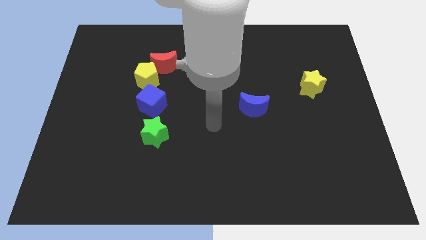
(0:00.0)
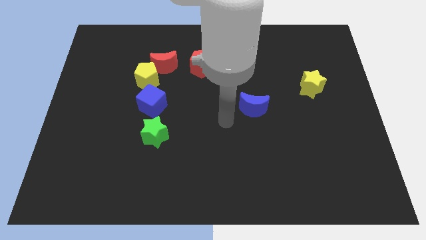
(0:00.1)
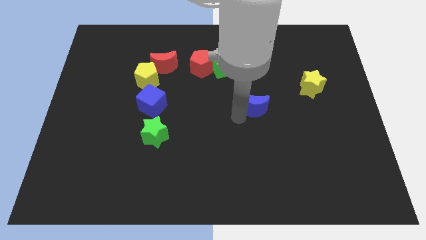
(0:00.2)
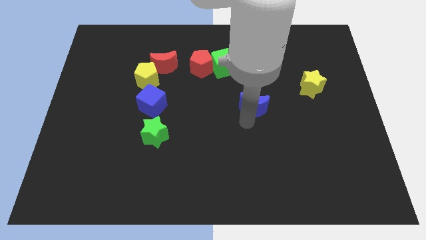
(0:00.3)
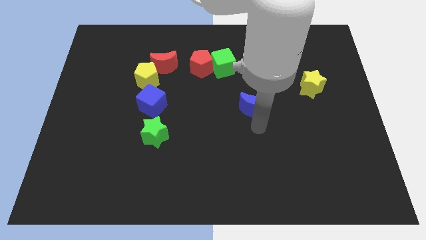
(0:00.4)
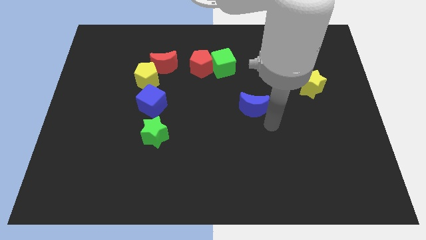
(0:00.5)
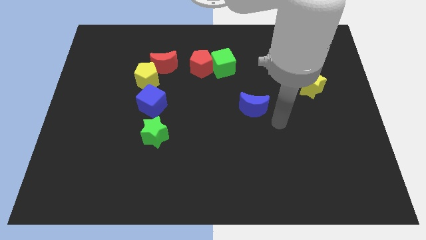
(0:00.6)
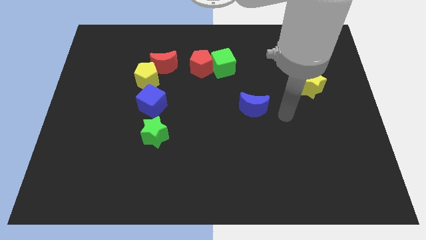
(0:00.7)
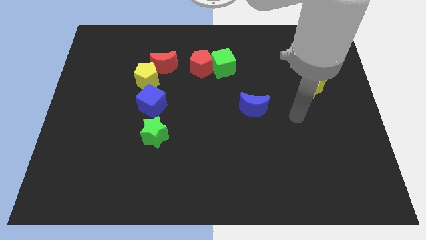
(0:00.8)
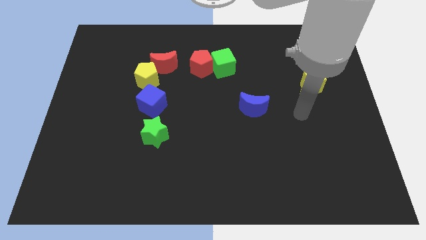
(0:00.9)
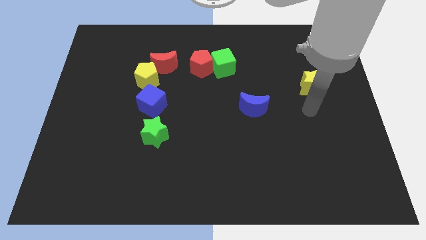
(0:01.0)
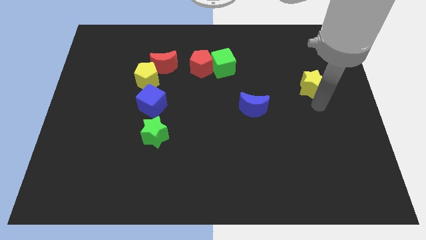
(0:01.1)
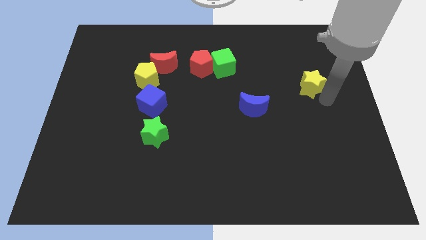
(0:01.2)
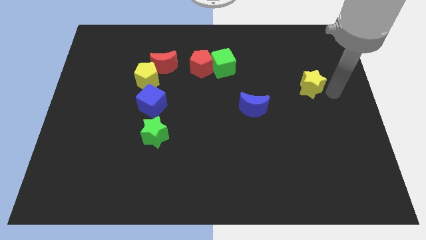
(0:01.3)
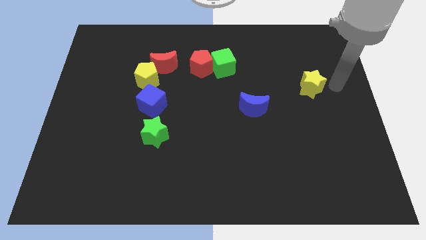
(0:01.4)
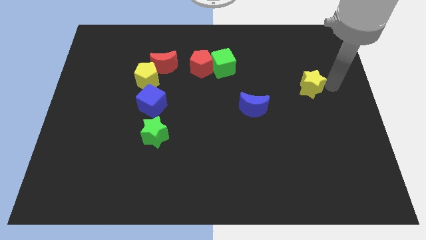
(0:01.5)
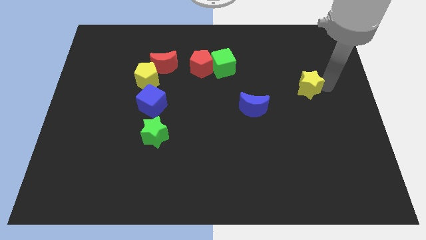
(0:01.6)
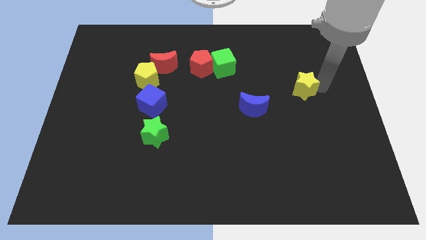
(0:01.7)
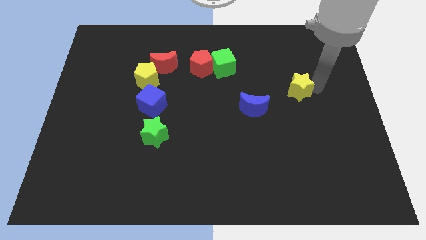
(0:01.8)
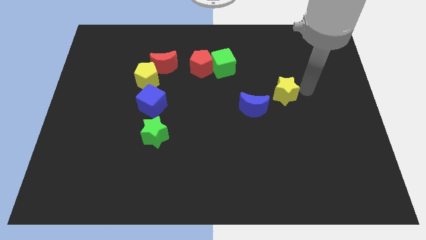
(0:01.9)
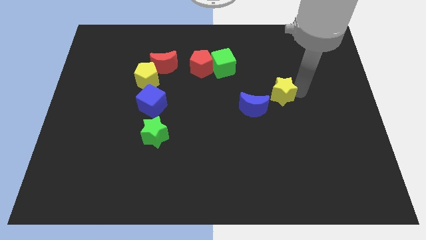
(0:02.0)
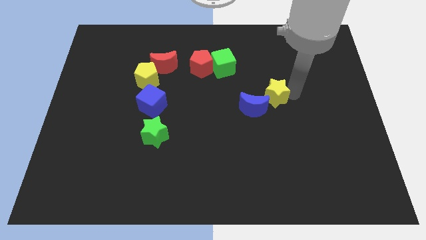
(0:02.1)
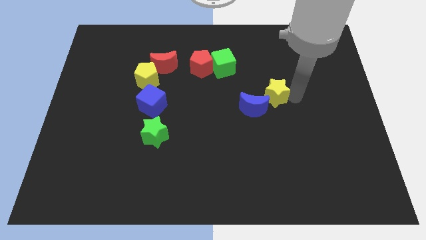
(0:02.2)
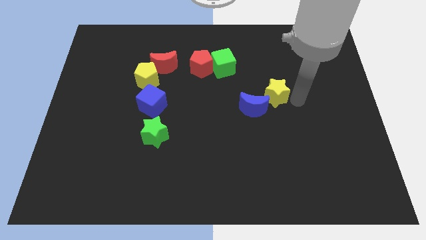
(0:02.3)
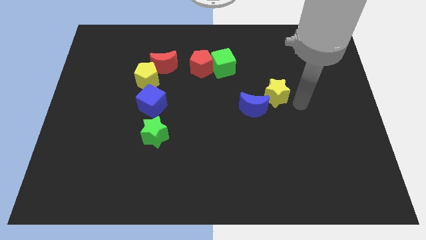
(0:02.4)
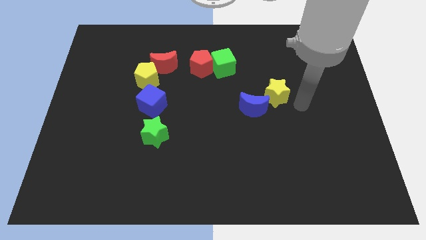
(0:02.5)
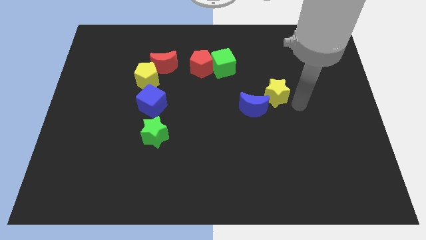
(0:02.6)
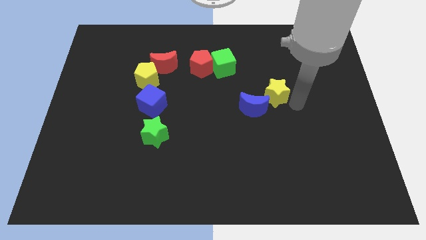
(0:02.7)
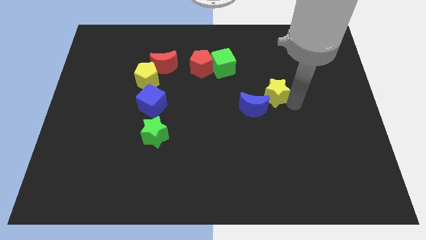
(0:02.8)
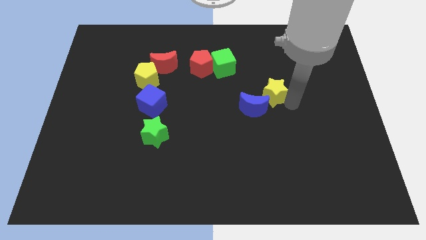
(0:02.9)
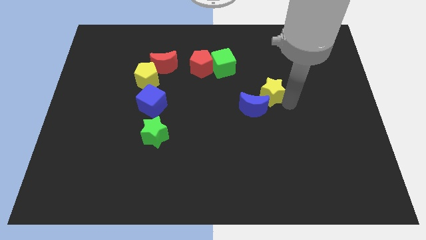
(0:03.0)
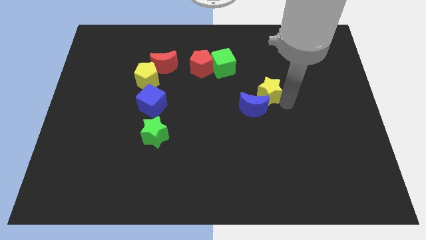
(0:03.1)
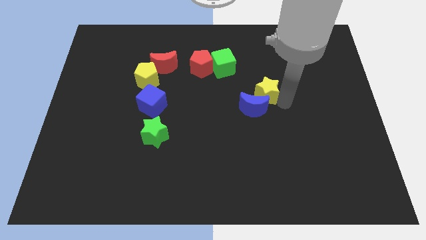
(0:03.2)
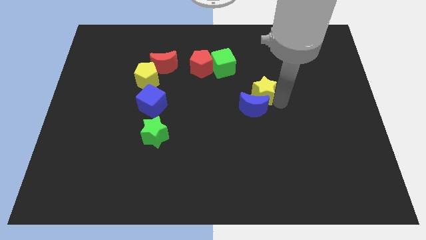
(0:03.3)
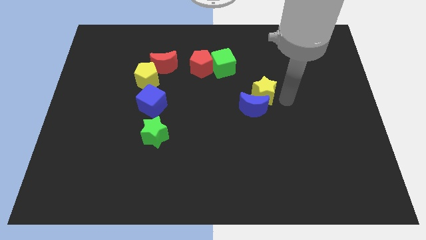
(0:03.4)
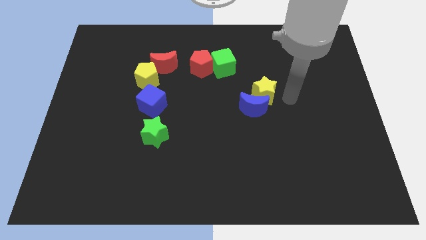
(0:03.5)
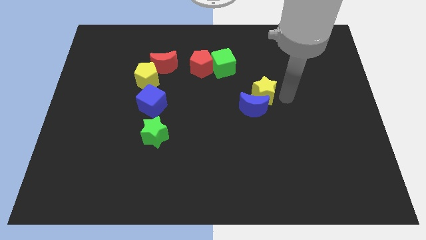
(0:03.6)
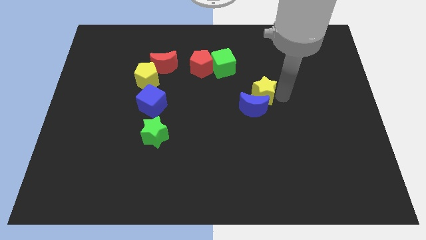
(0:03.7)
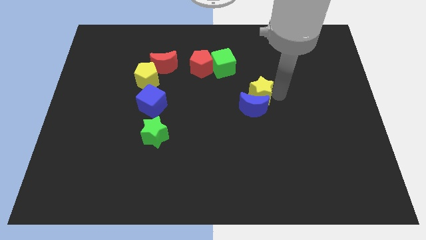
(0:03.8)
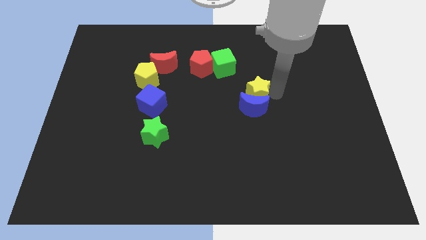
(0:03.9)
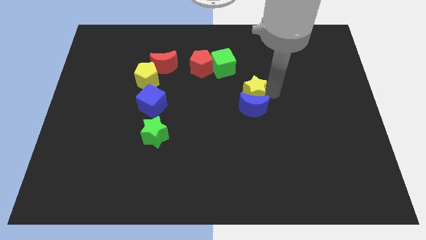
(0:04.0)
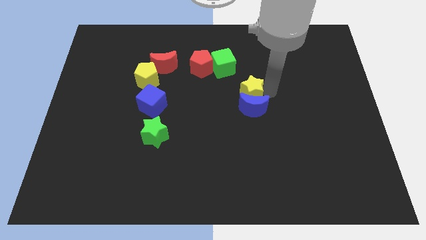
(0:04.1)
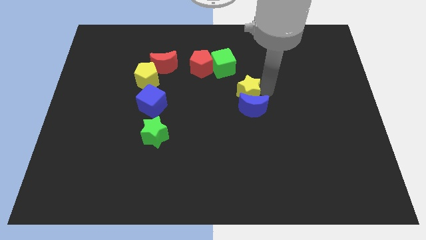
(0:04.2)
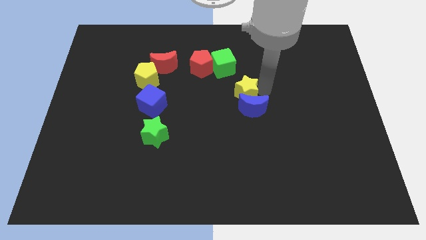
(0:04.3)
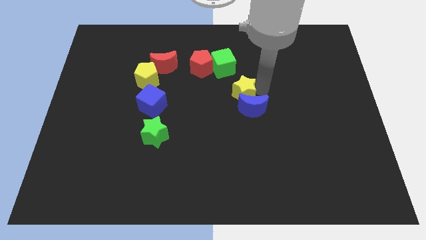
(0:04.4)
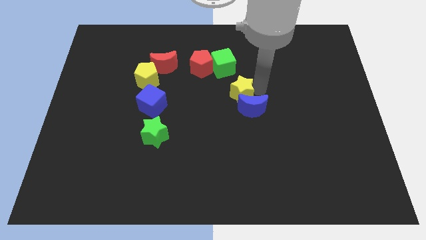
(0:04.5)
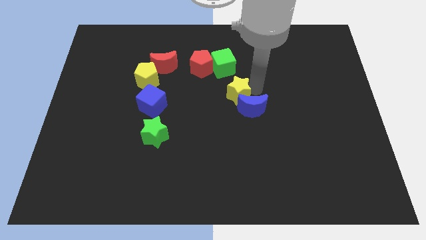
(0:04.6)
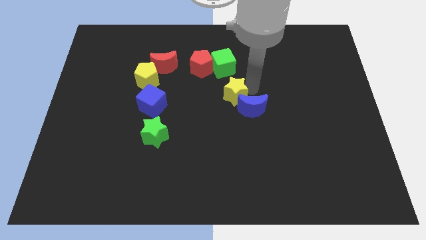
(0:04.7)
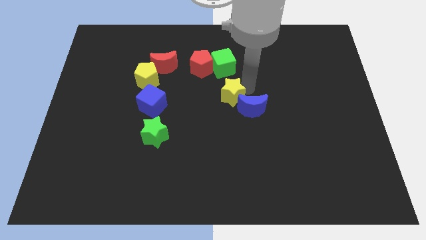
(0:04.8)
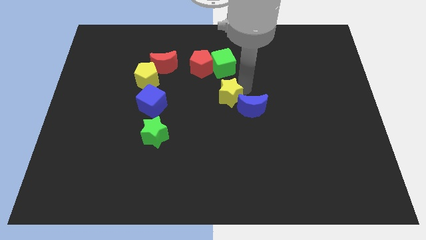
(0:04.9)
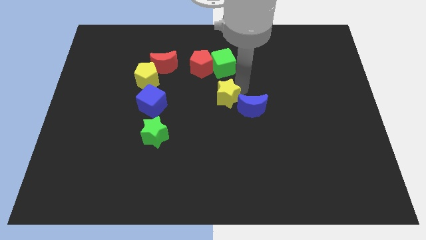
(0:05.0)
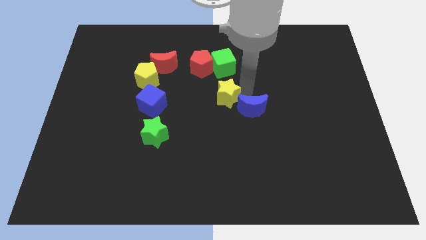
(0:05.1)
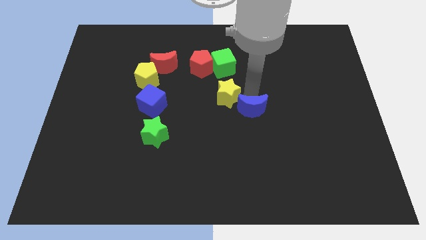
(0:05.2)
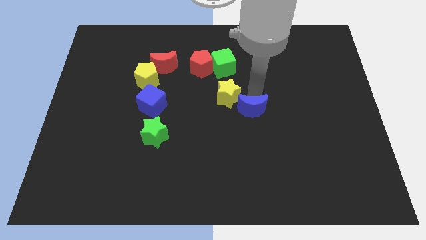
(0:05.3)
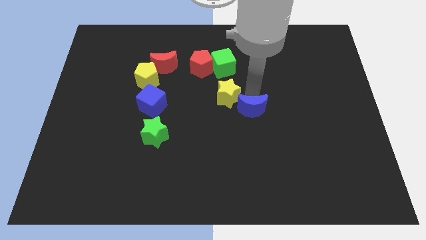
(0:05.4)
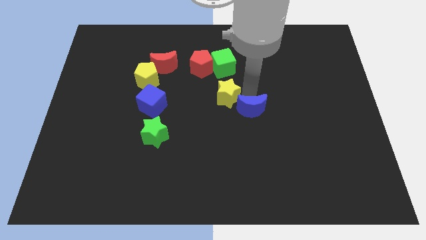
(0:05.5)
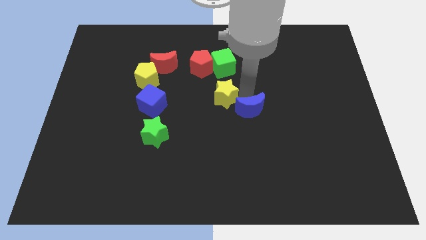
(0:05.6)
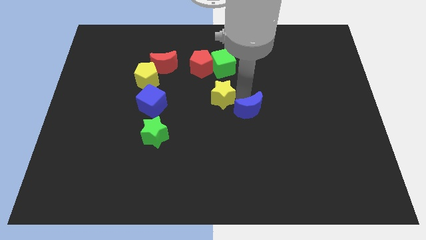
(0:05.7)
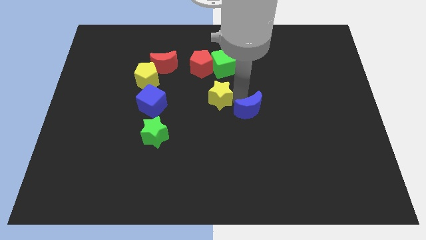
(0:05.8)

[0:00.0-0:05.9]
put the yellow star to the bottom side of the red pentagon

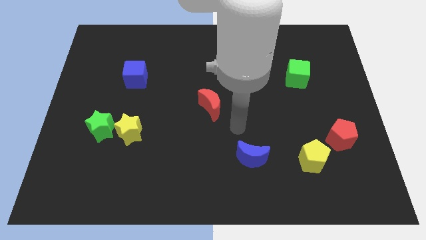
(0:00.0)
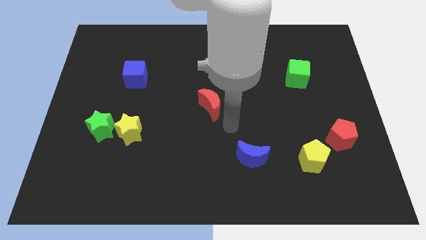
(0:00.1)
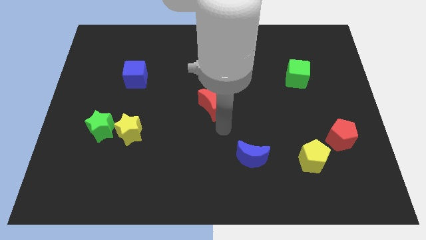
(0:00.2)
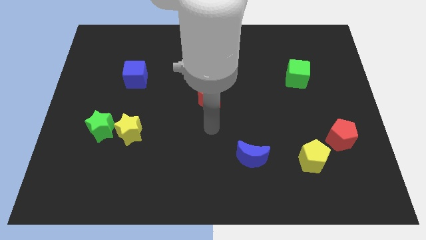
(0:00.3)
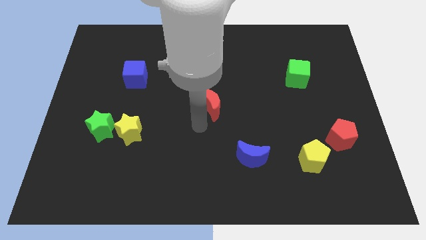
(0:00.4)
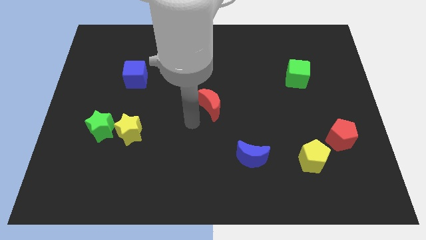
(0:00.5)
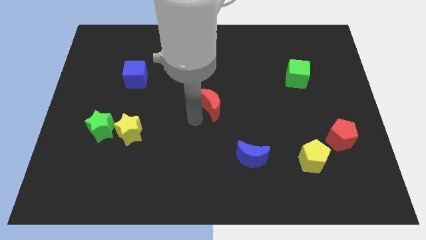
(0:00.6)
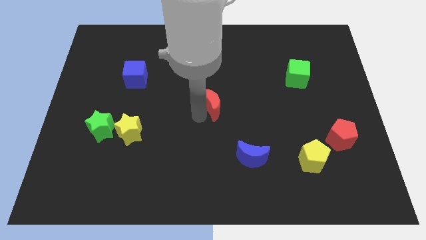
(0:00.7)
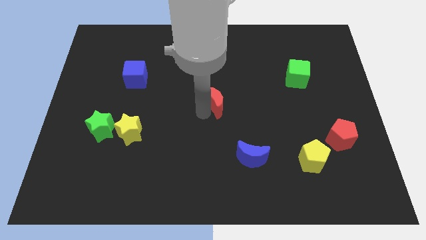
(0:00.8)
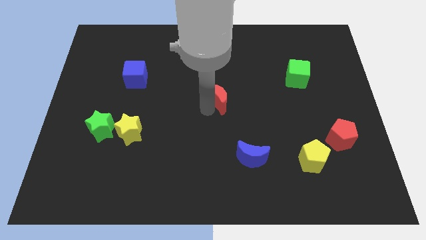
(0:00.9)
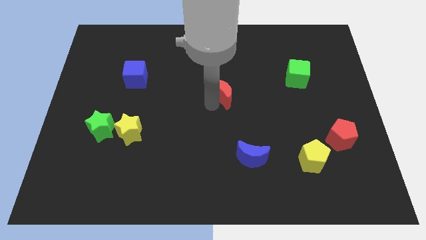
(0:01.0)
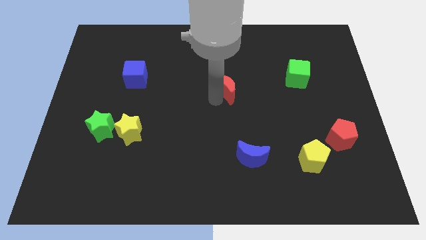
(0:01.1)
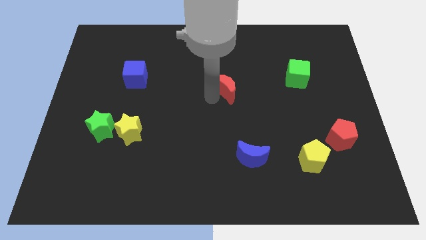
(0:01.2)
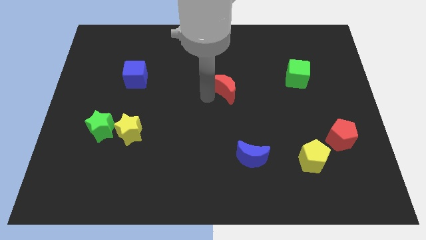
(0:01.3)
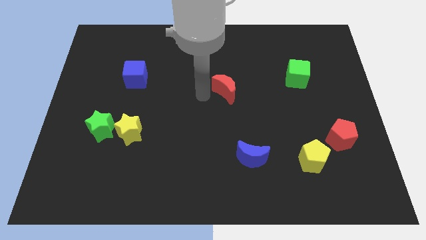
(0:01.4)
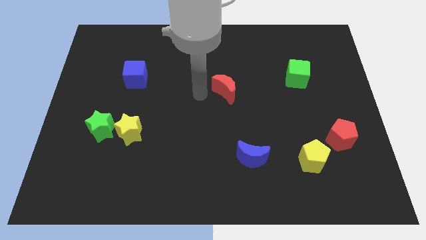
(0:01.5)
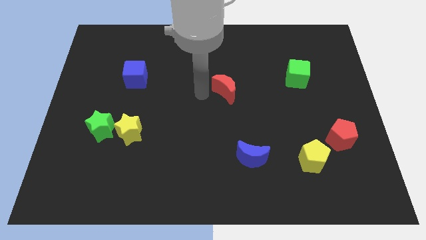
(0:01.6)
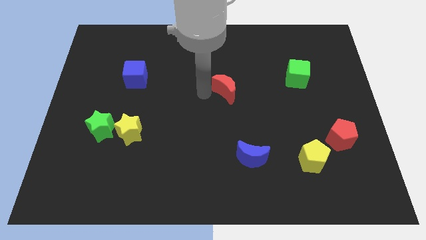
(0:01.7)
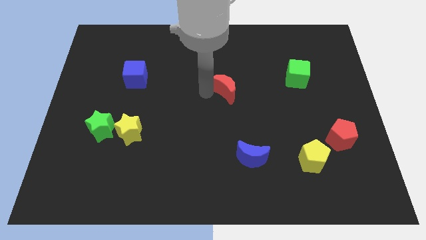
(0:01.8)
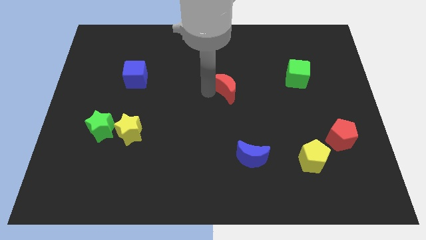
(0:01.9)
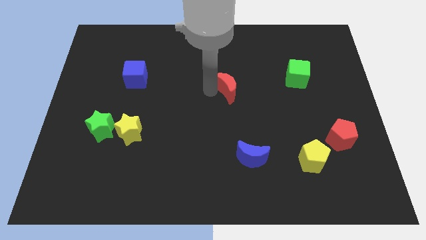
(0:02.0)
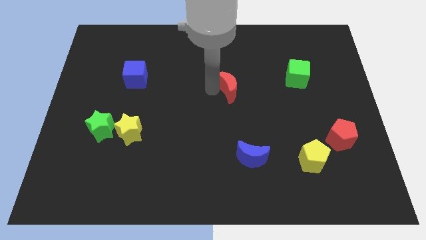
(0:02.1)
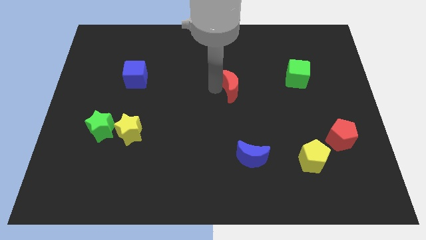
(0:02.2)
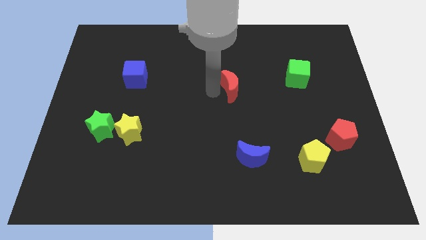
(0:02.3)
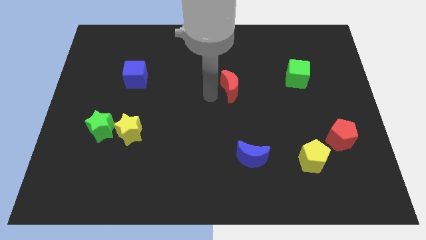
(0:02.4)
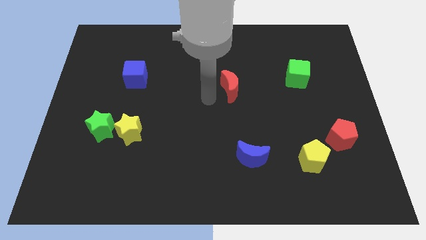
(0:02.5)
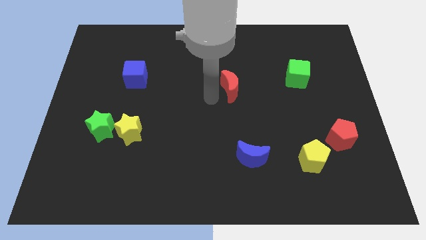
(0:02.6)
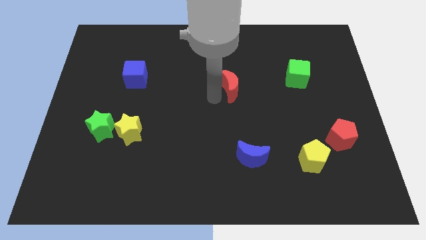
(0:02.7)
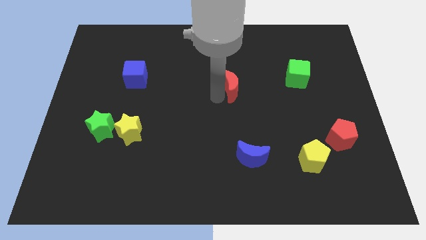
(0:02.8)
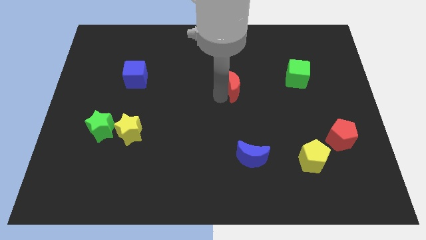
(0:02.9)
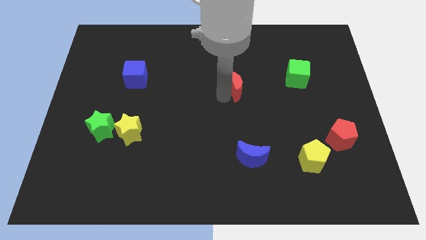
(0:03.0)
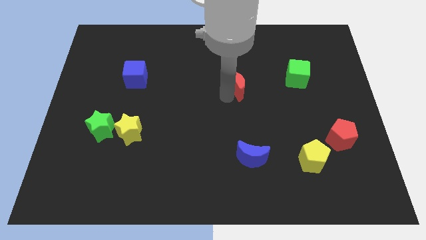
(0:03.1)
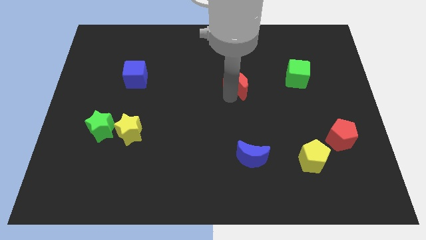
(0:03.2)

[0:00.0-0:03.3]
slide the red moon left of the green cube
